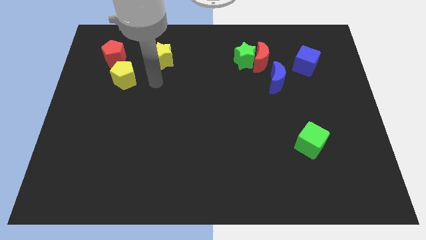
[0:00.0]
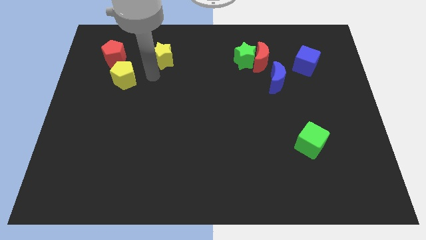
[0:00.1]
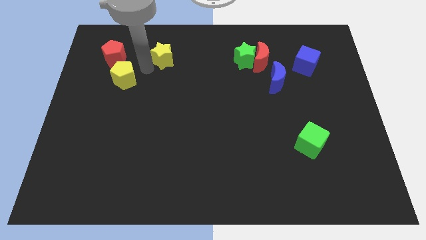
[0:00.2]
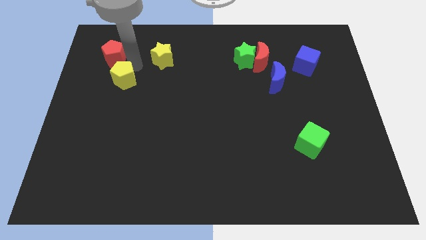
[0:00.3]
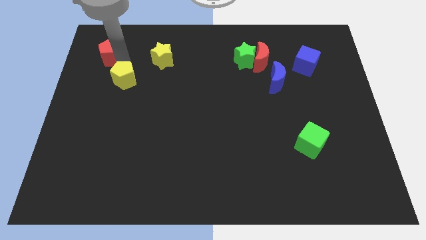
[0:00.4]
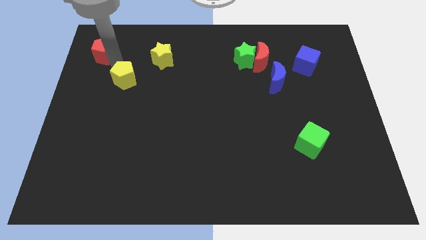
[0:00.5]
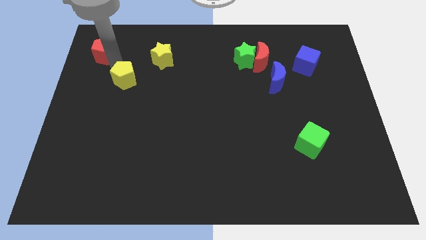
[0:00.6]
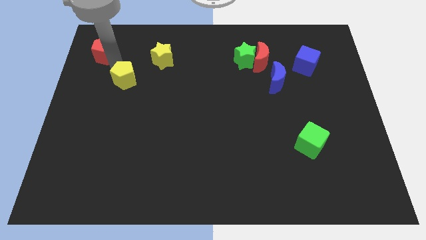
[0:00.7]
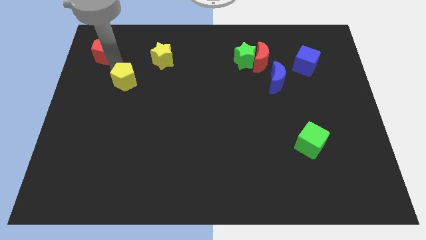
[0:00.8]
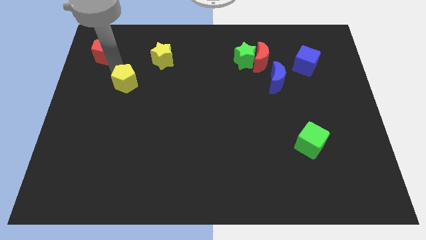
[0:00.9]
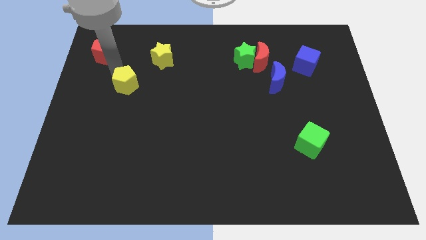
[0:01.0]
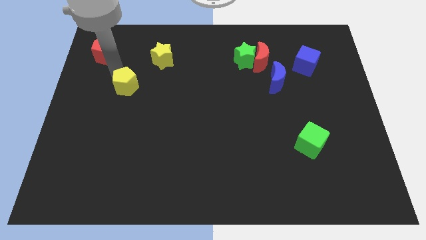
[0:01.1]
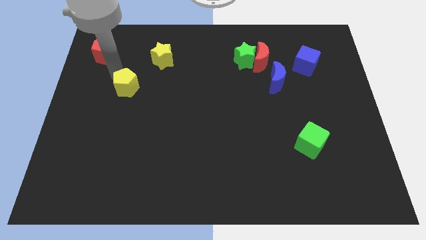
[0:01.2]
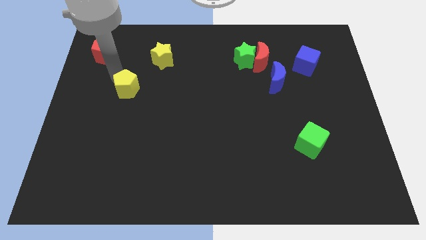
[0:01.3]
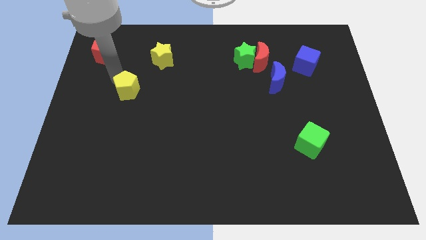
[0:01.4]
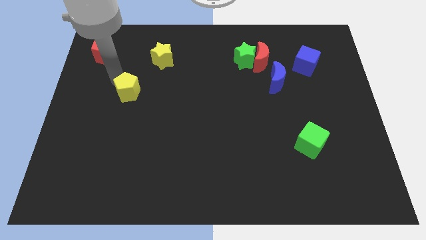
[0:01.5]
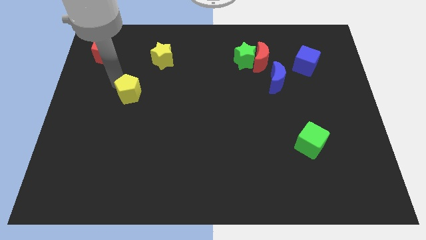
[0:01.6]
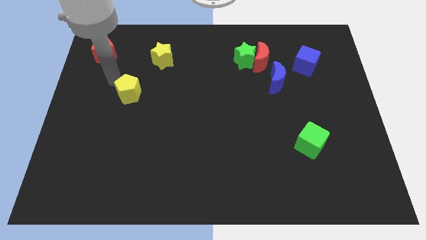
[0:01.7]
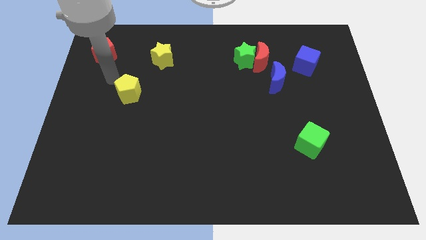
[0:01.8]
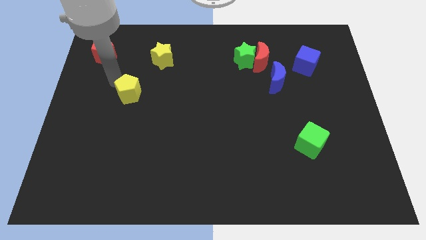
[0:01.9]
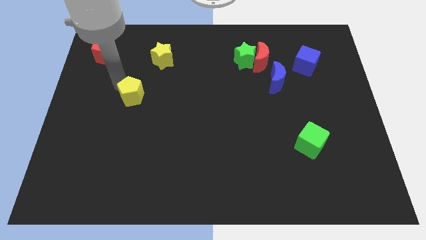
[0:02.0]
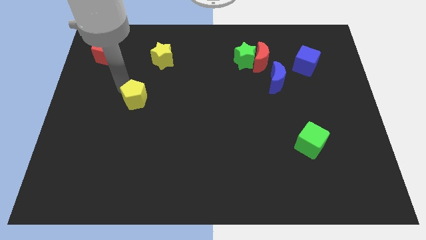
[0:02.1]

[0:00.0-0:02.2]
move the yellow pentagon down and then right somewhat

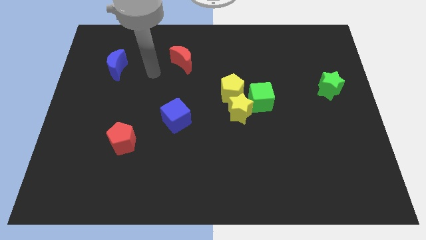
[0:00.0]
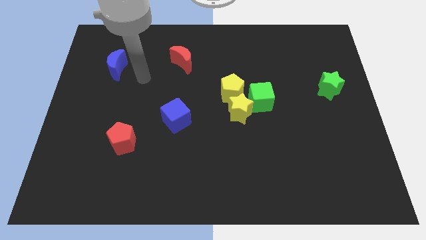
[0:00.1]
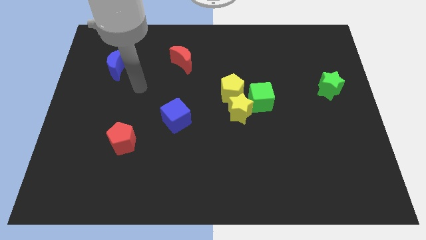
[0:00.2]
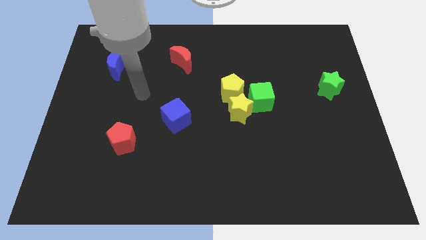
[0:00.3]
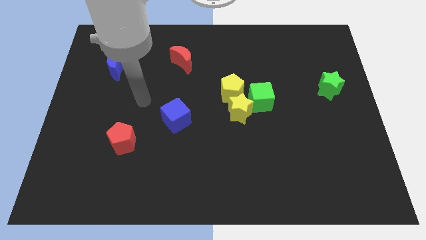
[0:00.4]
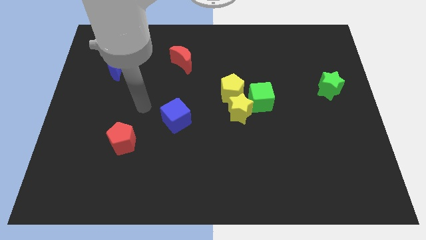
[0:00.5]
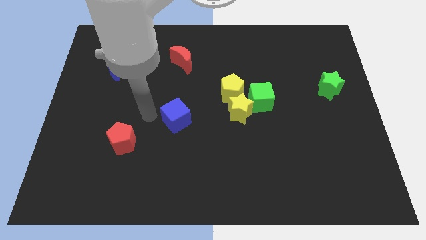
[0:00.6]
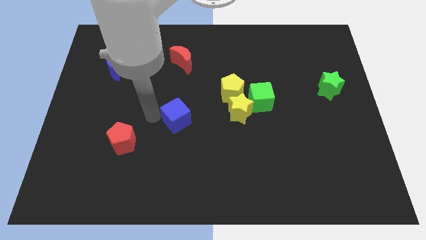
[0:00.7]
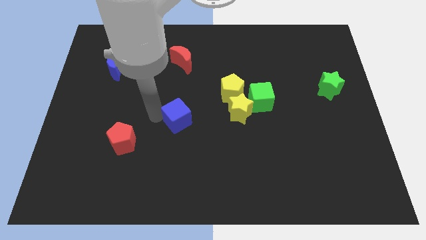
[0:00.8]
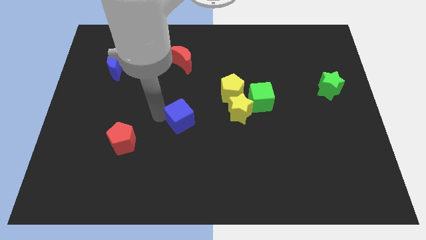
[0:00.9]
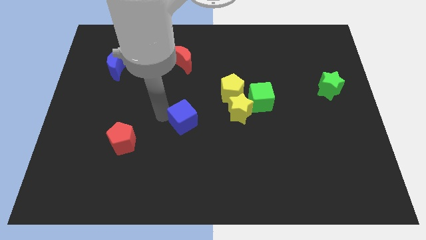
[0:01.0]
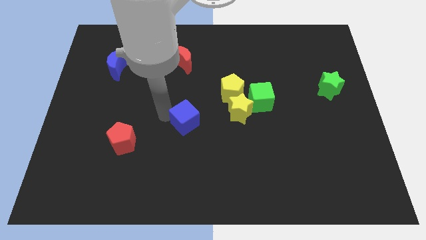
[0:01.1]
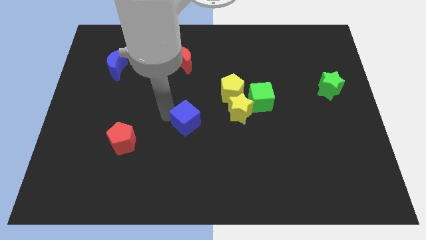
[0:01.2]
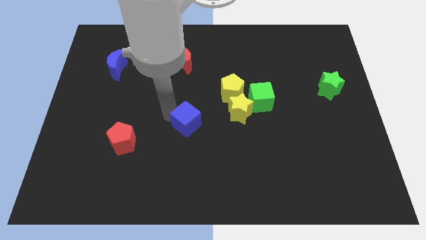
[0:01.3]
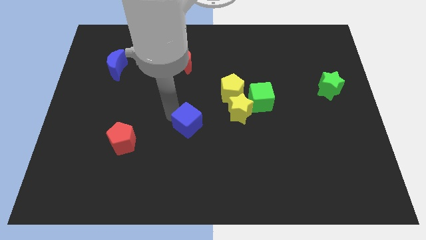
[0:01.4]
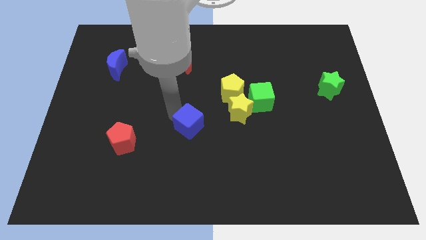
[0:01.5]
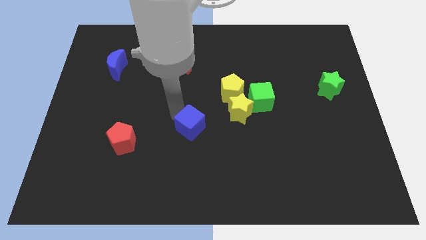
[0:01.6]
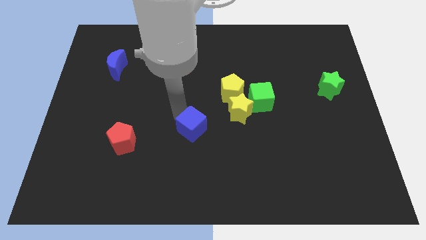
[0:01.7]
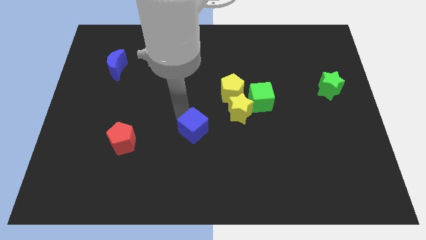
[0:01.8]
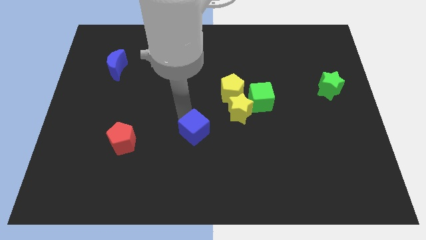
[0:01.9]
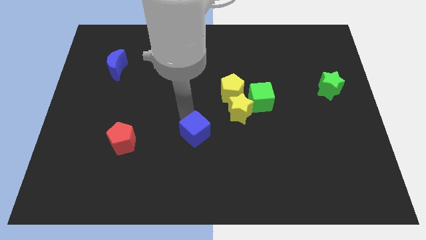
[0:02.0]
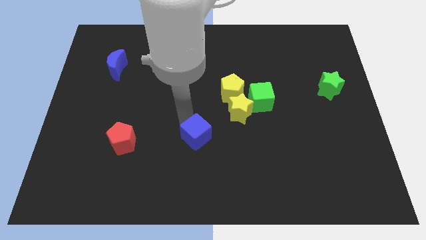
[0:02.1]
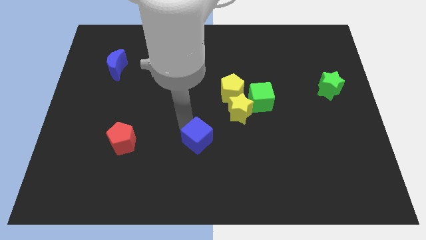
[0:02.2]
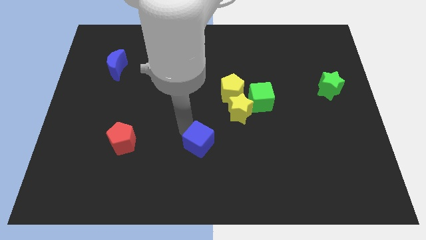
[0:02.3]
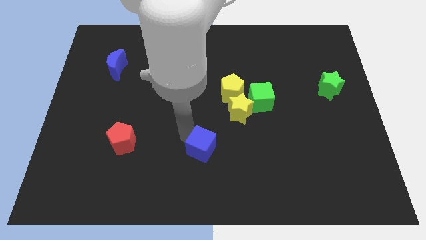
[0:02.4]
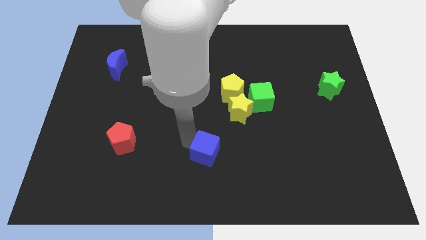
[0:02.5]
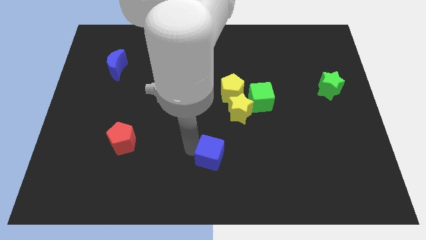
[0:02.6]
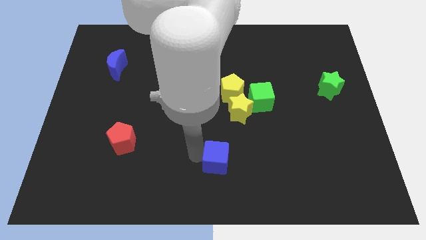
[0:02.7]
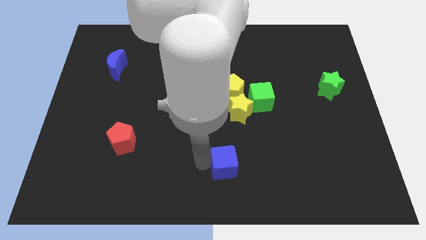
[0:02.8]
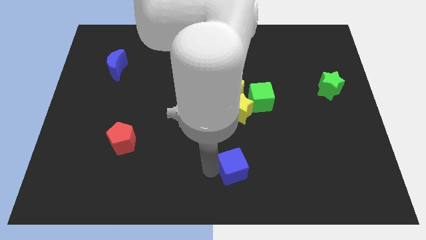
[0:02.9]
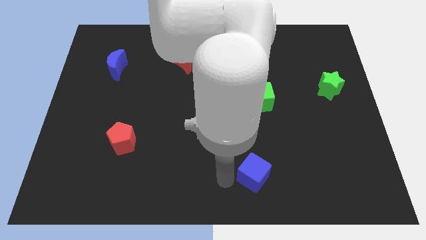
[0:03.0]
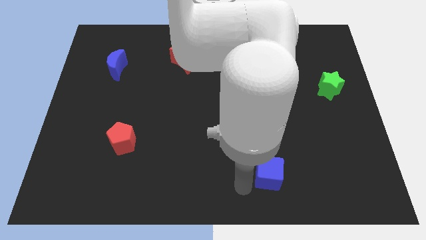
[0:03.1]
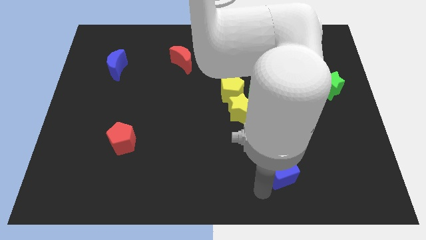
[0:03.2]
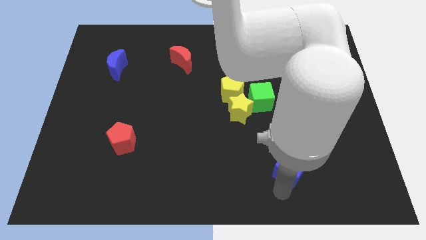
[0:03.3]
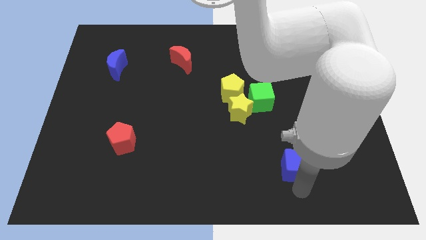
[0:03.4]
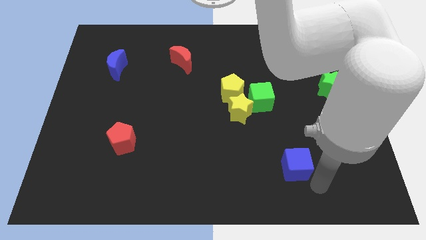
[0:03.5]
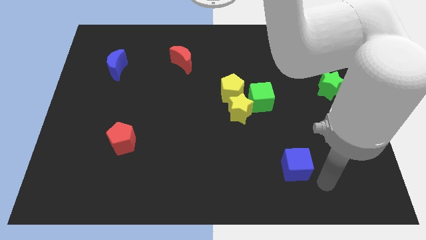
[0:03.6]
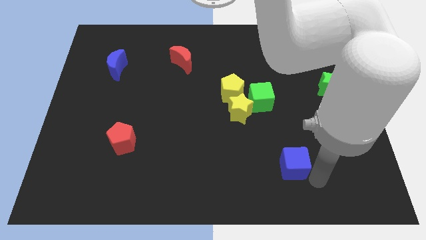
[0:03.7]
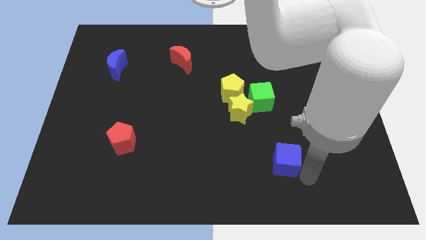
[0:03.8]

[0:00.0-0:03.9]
slide the blue cube a bit to the right

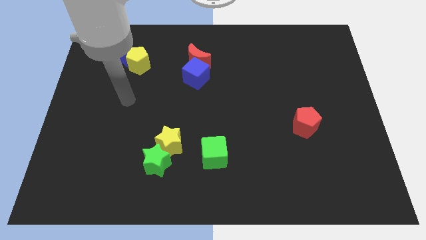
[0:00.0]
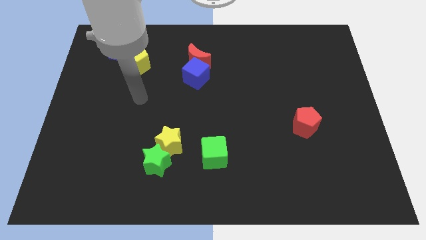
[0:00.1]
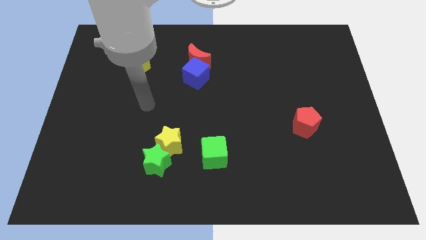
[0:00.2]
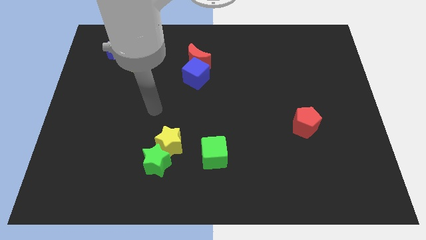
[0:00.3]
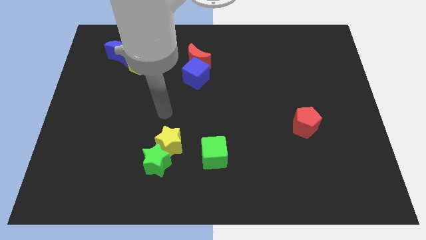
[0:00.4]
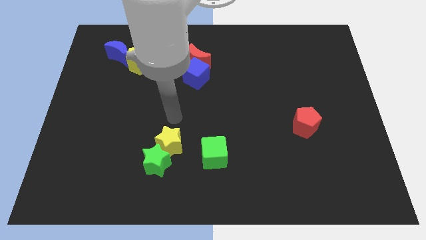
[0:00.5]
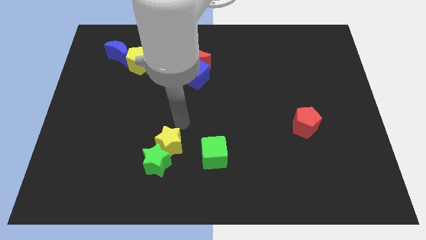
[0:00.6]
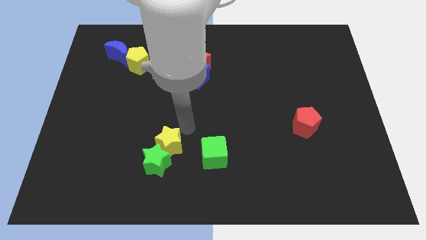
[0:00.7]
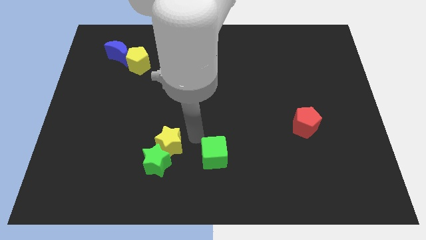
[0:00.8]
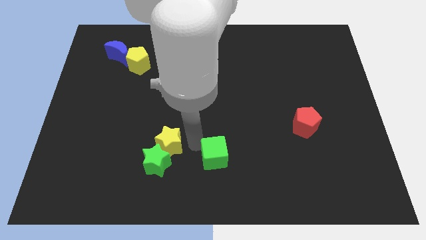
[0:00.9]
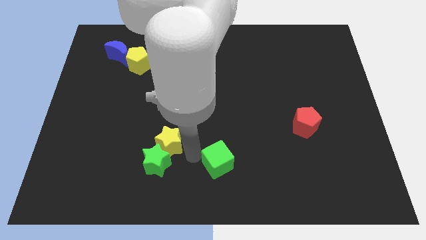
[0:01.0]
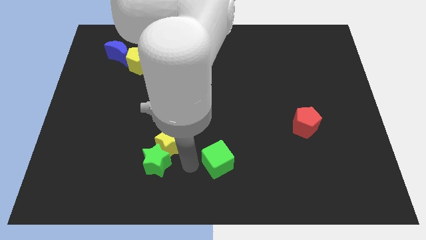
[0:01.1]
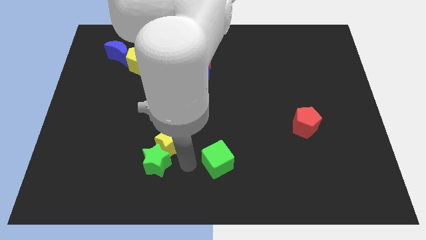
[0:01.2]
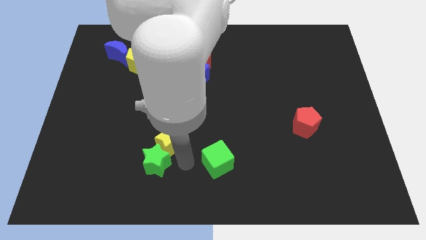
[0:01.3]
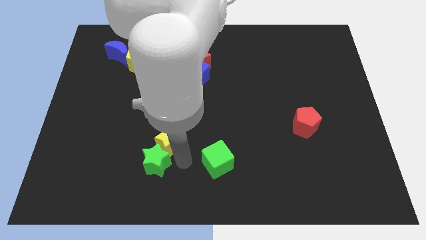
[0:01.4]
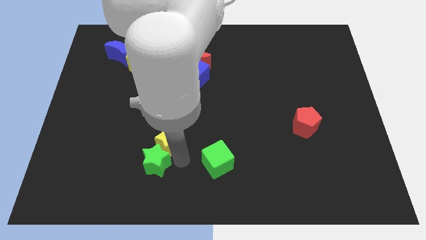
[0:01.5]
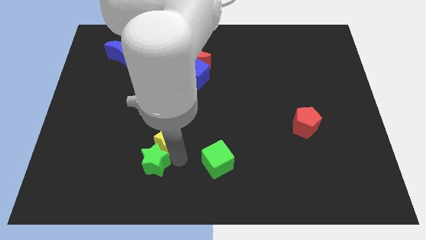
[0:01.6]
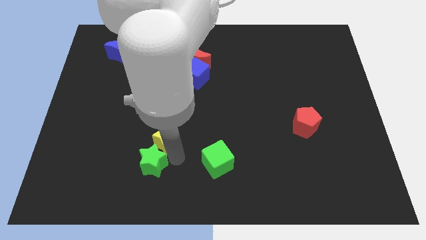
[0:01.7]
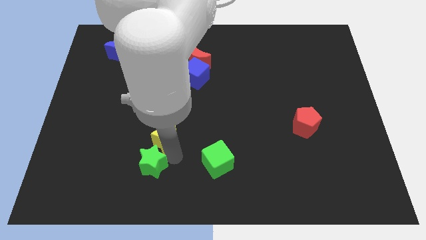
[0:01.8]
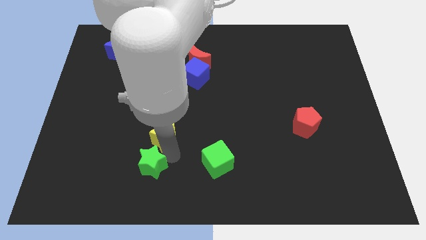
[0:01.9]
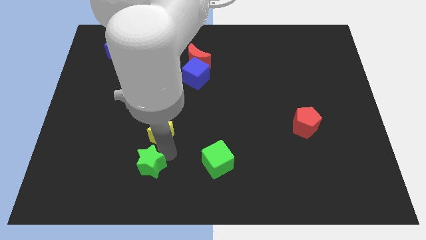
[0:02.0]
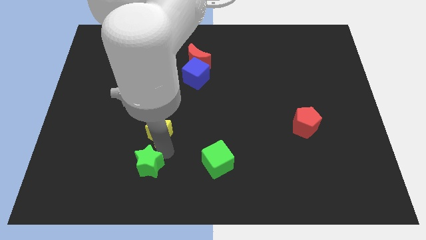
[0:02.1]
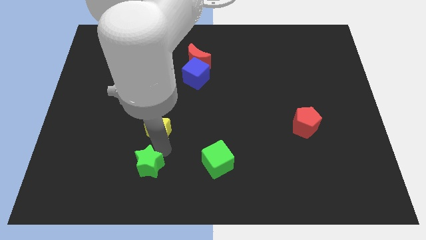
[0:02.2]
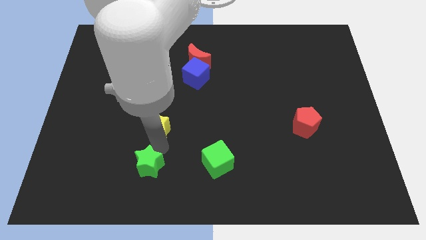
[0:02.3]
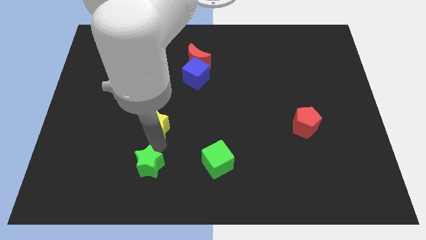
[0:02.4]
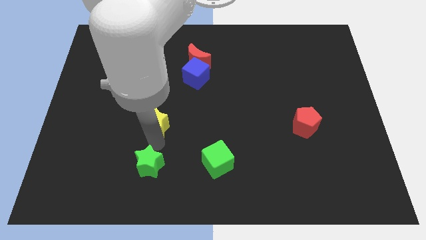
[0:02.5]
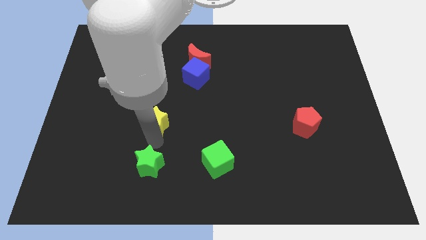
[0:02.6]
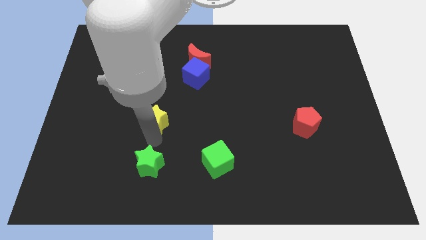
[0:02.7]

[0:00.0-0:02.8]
slide the yellow star slightly diagonally upwards and left
